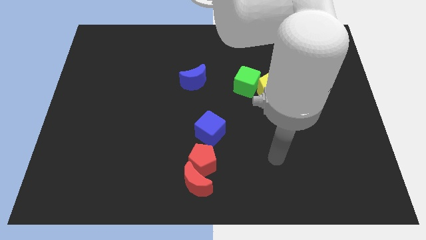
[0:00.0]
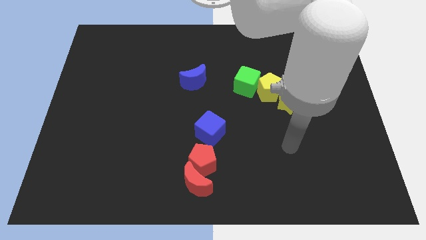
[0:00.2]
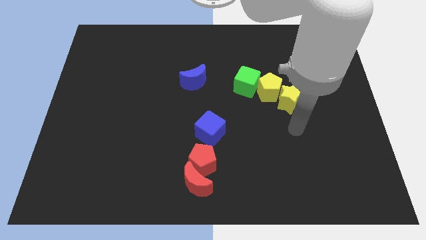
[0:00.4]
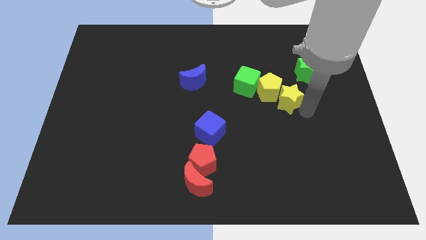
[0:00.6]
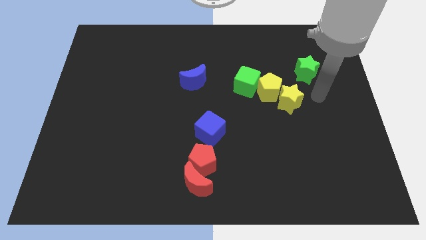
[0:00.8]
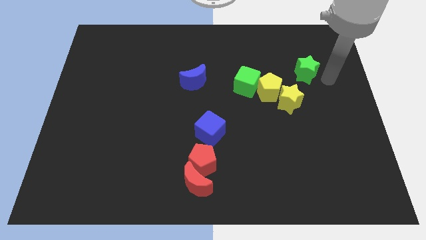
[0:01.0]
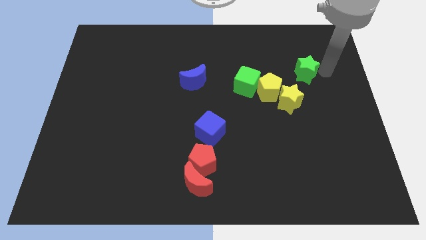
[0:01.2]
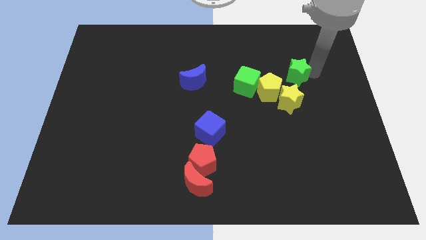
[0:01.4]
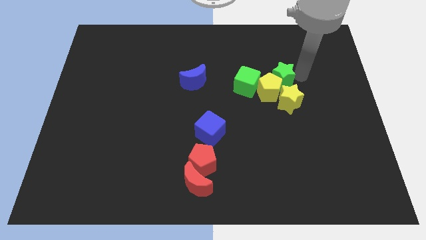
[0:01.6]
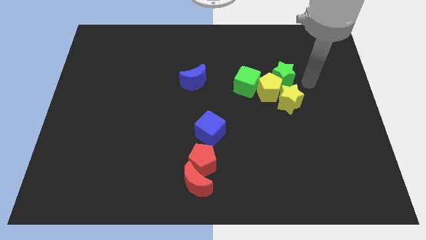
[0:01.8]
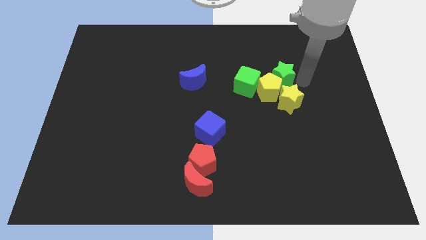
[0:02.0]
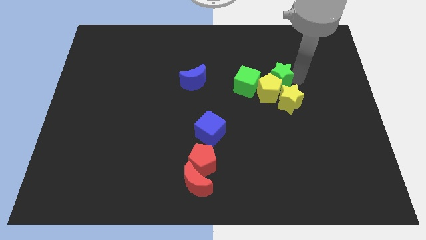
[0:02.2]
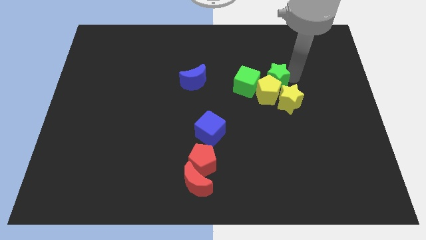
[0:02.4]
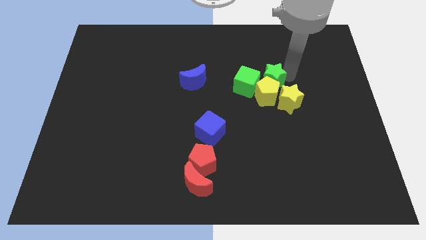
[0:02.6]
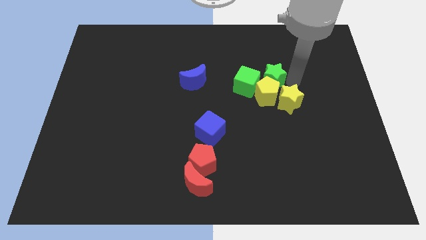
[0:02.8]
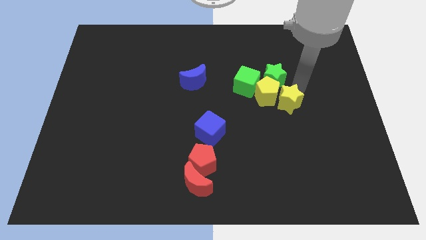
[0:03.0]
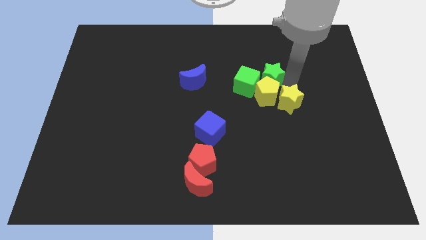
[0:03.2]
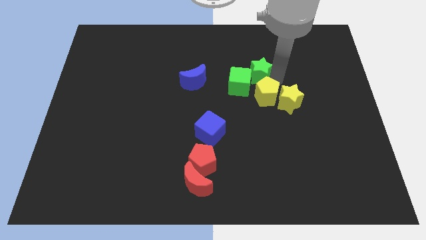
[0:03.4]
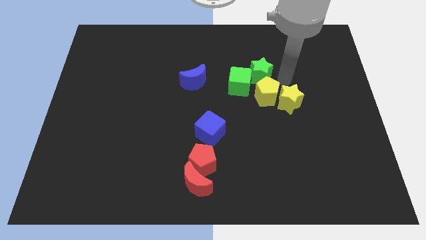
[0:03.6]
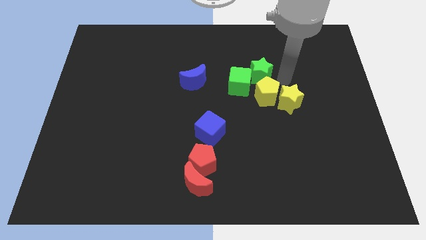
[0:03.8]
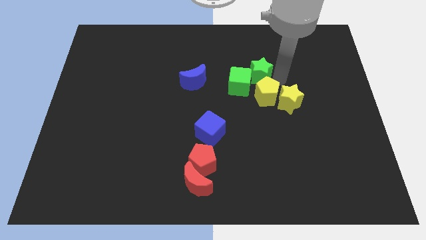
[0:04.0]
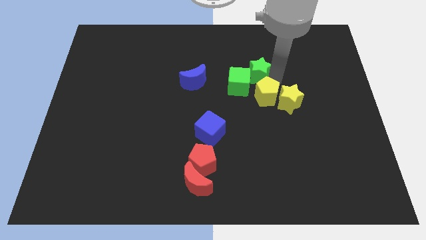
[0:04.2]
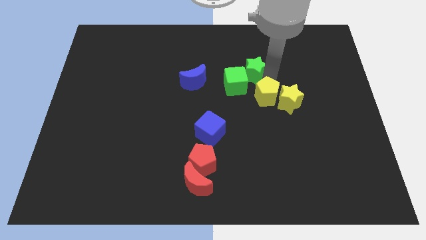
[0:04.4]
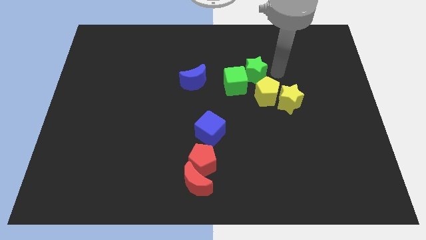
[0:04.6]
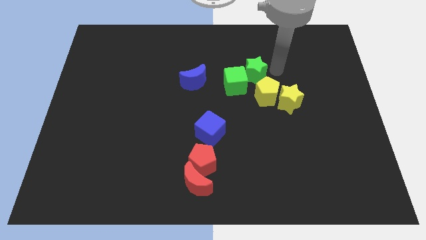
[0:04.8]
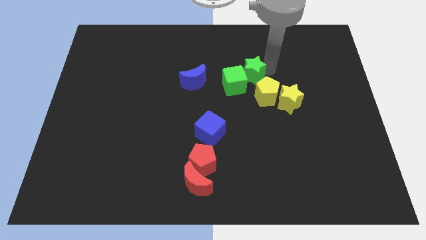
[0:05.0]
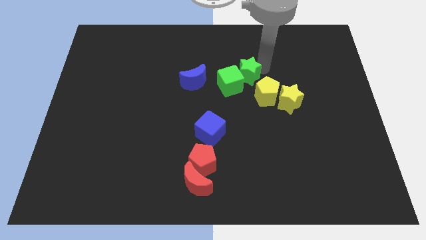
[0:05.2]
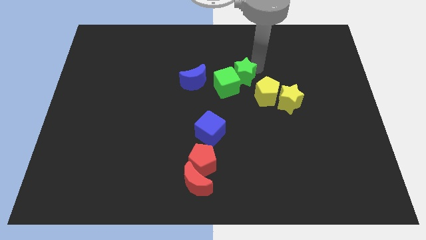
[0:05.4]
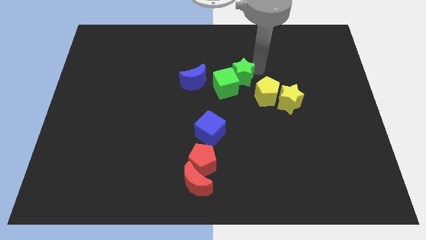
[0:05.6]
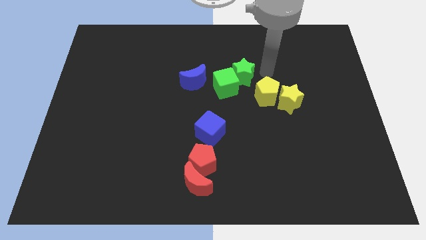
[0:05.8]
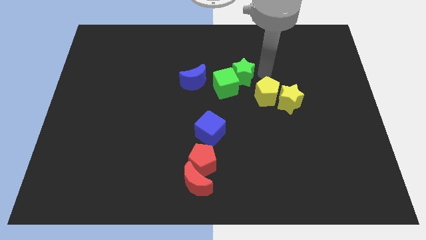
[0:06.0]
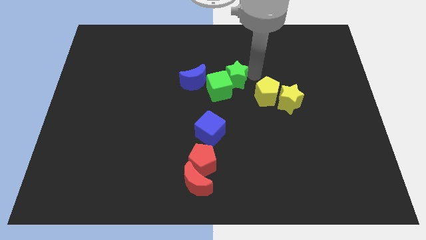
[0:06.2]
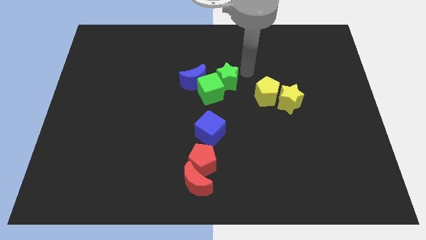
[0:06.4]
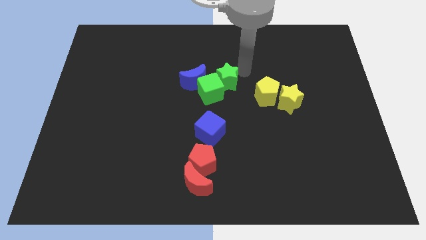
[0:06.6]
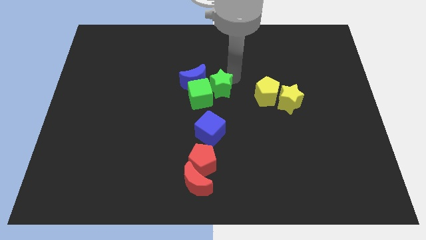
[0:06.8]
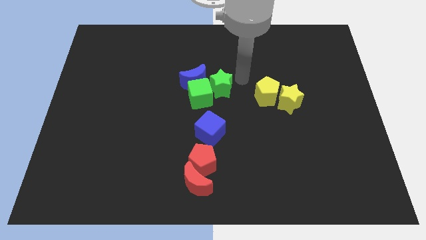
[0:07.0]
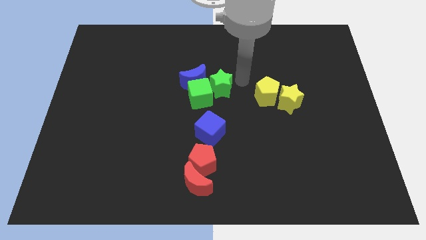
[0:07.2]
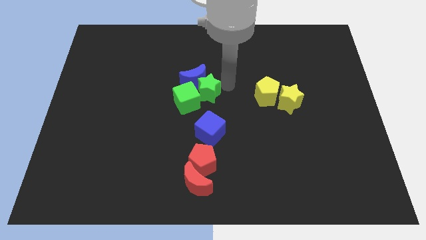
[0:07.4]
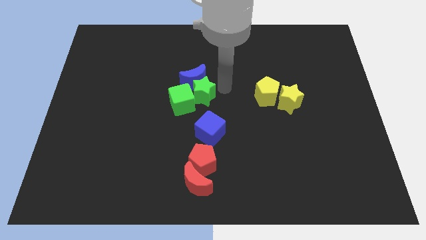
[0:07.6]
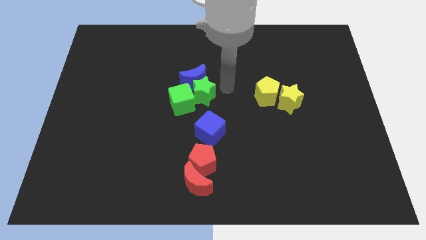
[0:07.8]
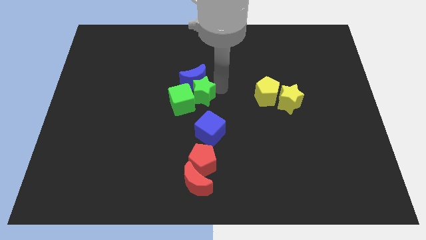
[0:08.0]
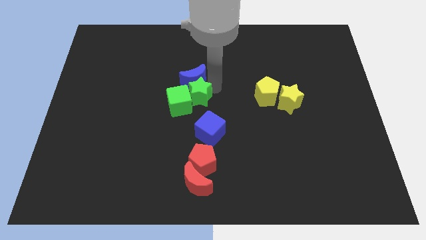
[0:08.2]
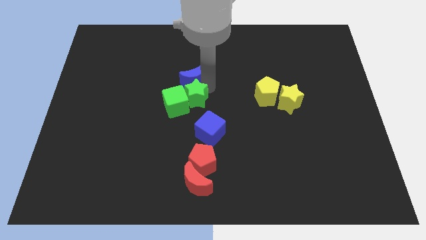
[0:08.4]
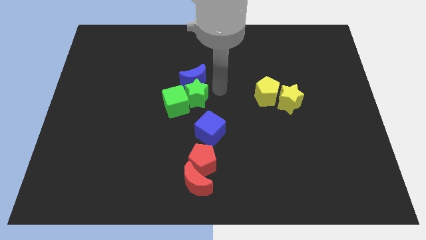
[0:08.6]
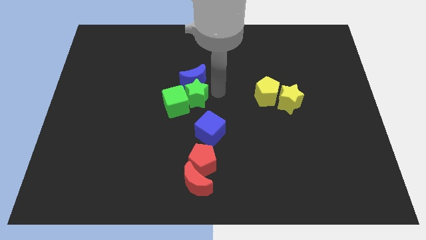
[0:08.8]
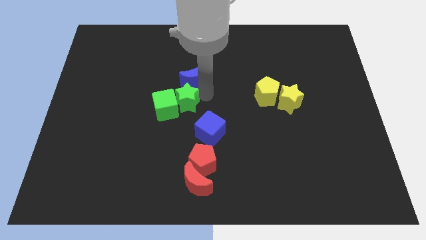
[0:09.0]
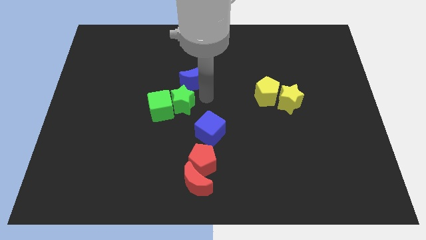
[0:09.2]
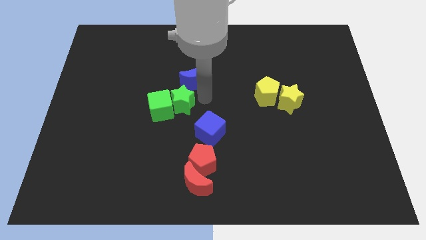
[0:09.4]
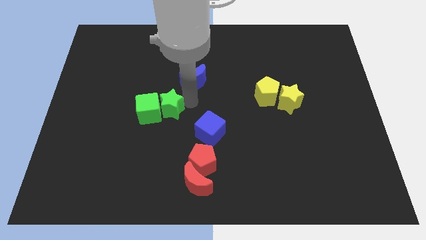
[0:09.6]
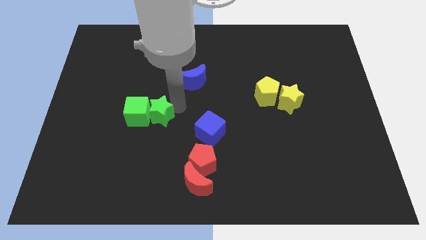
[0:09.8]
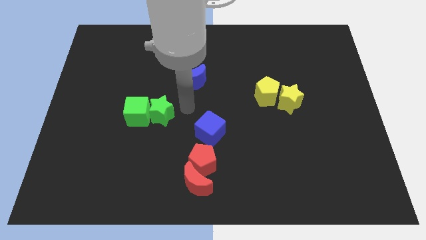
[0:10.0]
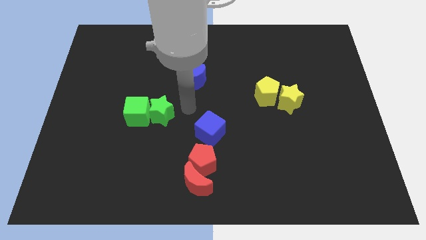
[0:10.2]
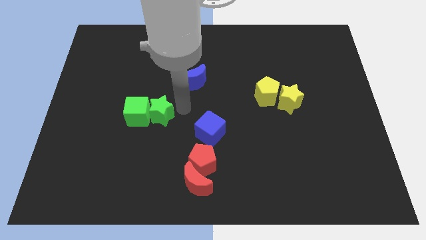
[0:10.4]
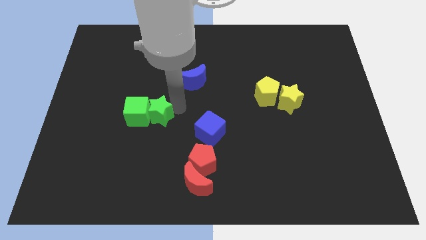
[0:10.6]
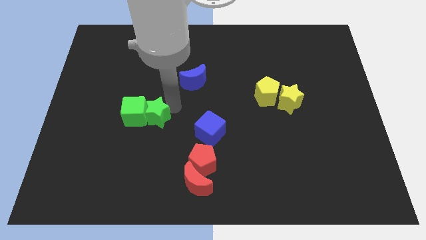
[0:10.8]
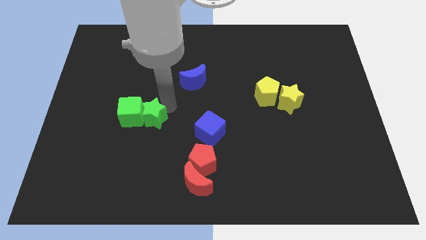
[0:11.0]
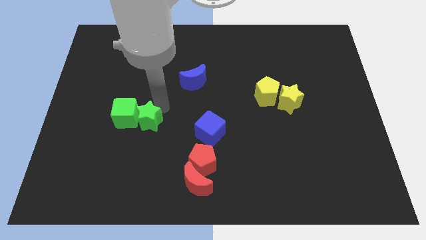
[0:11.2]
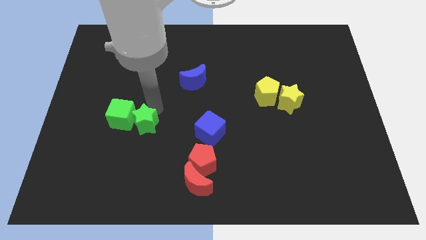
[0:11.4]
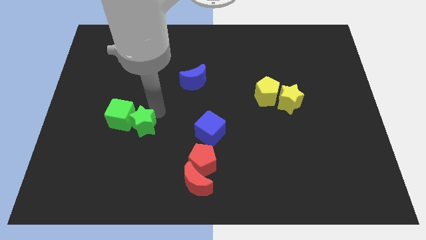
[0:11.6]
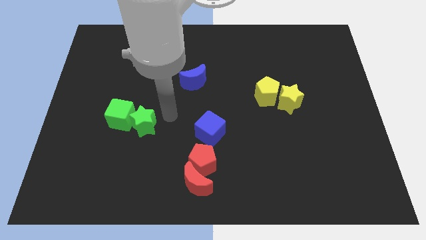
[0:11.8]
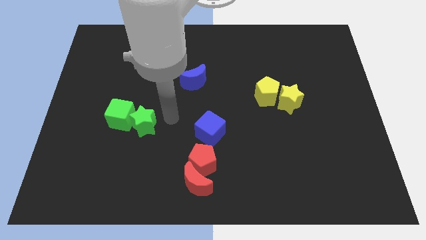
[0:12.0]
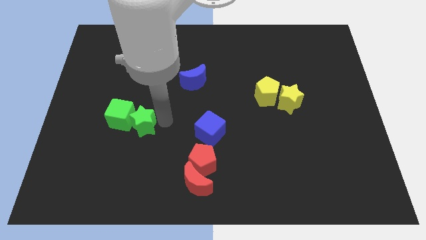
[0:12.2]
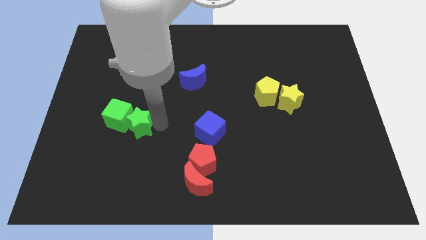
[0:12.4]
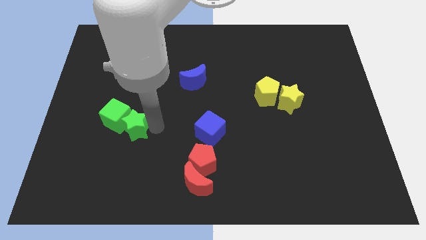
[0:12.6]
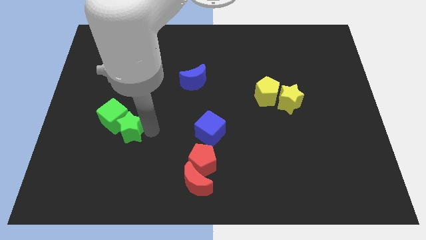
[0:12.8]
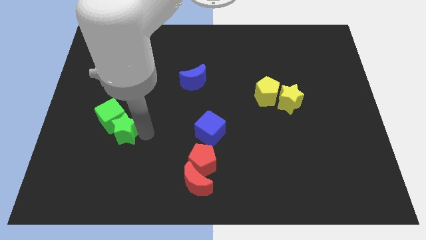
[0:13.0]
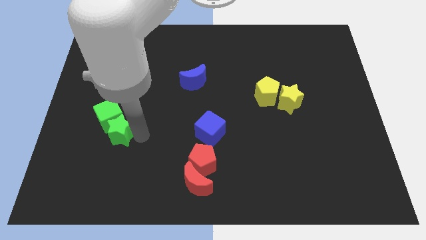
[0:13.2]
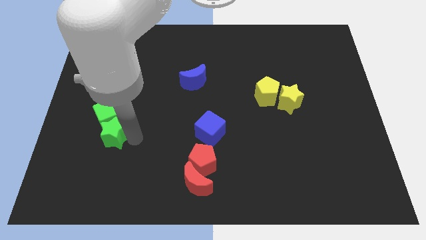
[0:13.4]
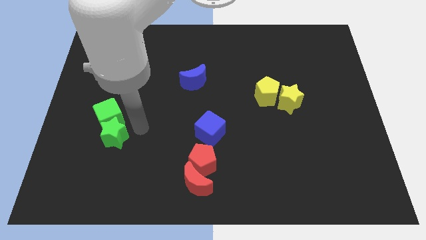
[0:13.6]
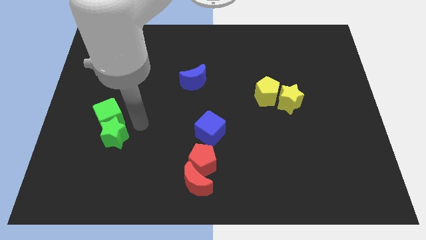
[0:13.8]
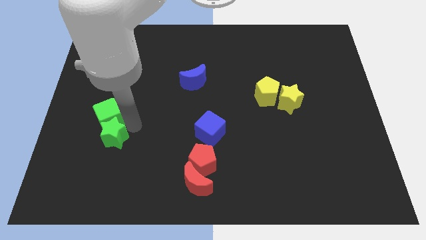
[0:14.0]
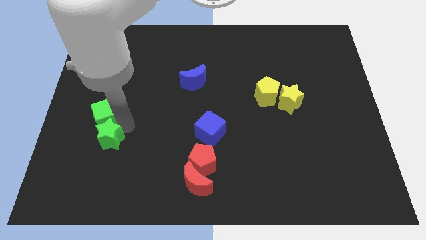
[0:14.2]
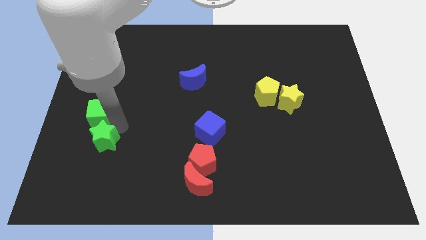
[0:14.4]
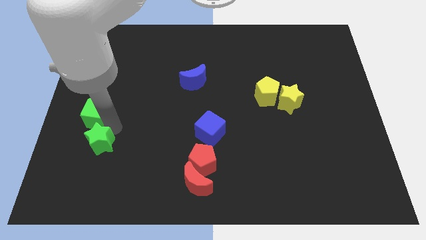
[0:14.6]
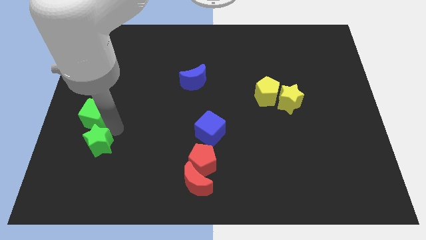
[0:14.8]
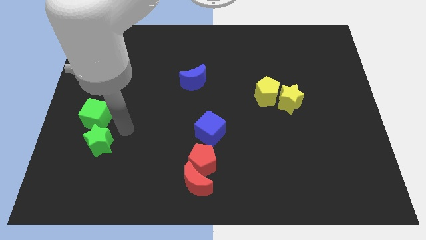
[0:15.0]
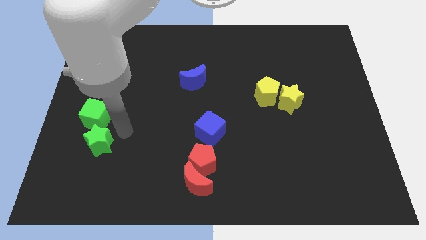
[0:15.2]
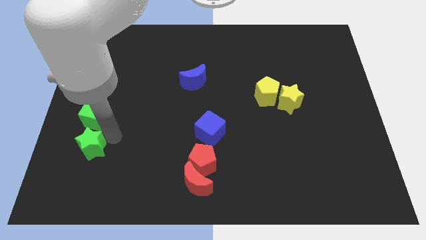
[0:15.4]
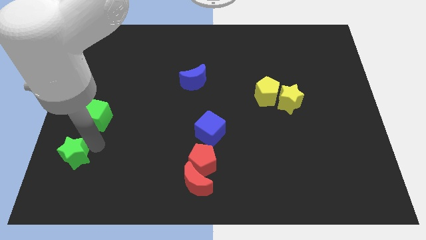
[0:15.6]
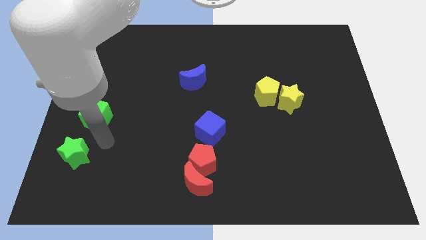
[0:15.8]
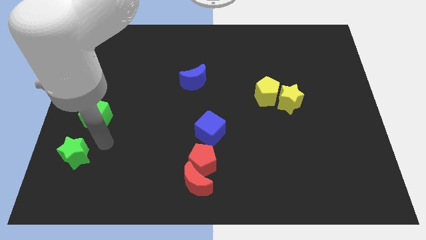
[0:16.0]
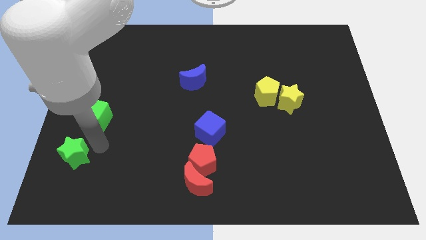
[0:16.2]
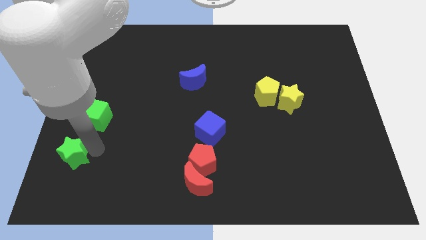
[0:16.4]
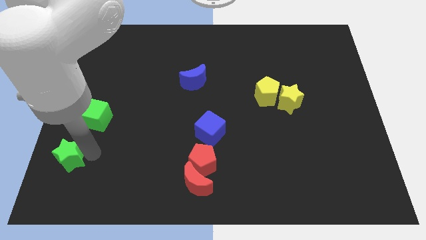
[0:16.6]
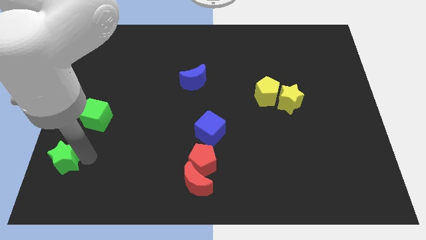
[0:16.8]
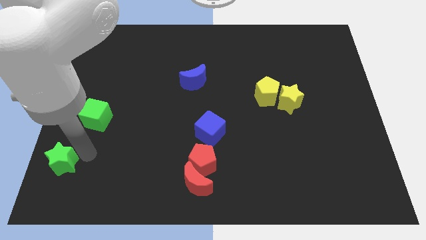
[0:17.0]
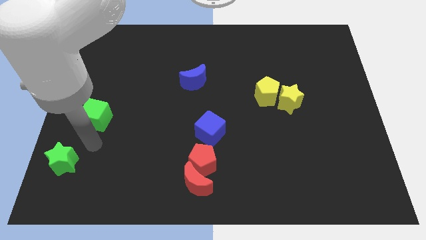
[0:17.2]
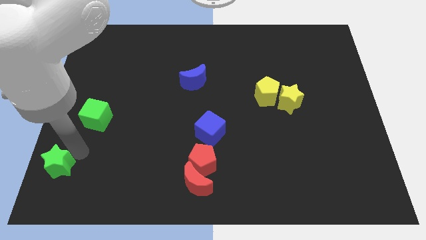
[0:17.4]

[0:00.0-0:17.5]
move the green star to the bottom left
